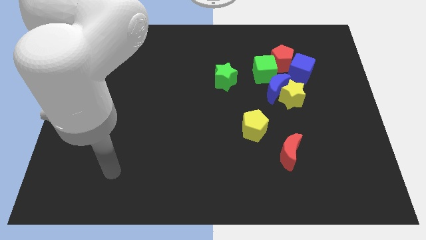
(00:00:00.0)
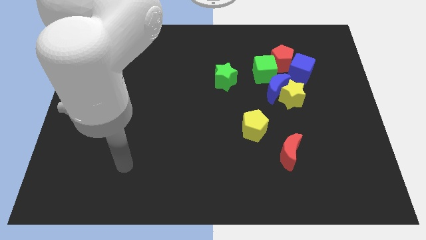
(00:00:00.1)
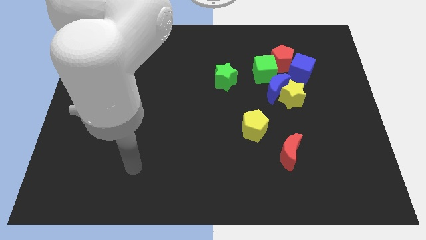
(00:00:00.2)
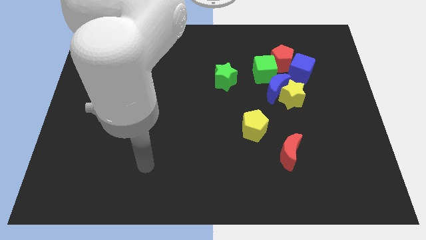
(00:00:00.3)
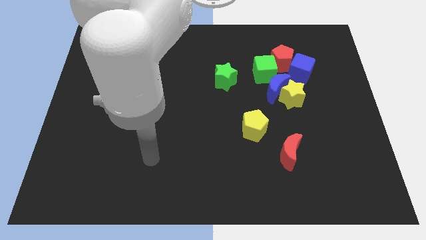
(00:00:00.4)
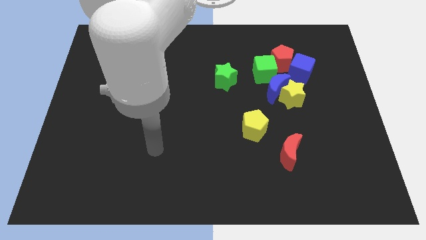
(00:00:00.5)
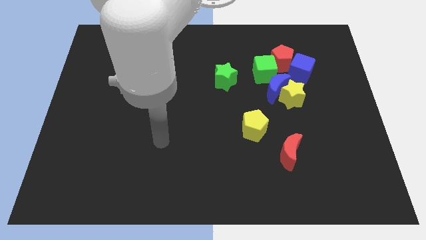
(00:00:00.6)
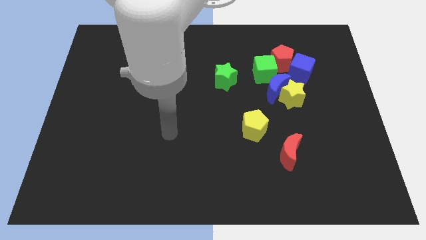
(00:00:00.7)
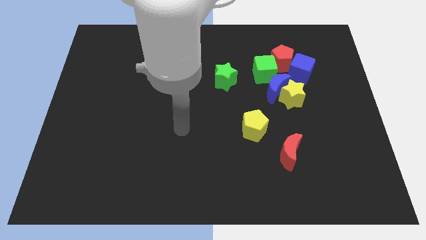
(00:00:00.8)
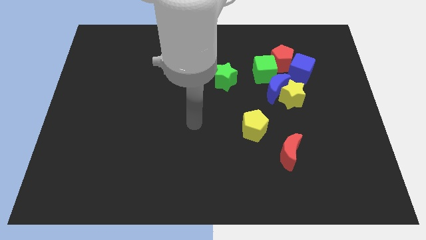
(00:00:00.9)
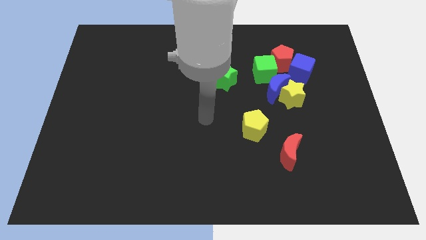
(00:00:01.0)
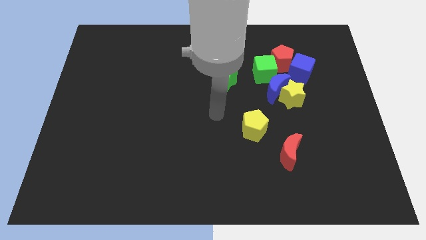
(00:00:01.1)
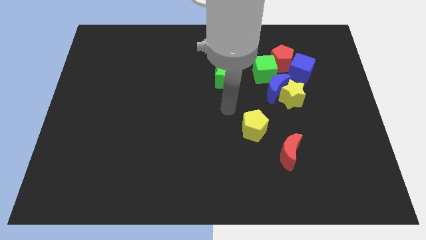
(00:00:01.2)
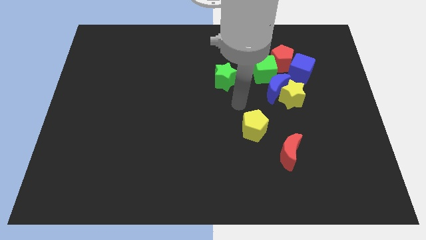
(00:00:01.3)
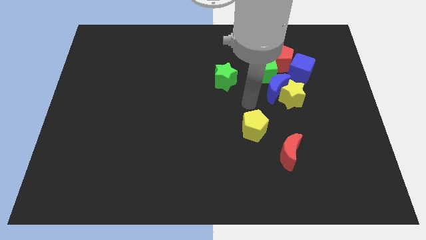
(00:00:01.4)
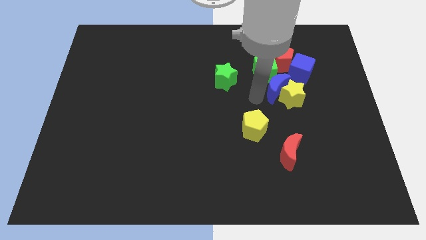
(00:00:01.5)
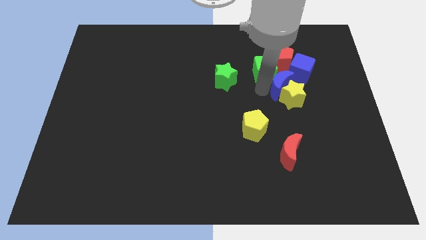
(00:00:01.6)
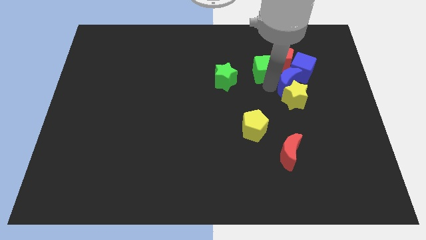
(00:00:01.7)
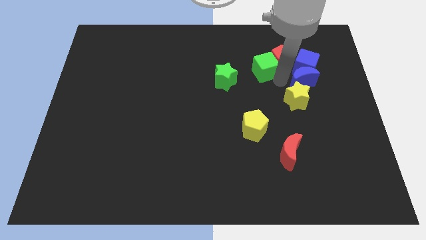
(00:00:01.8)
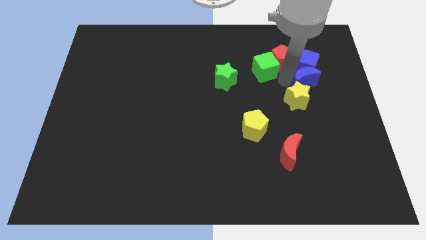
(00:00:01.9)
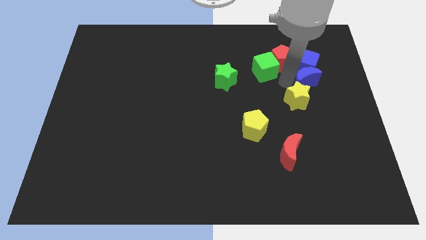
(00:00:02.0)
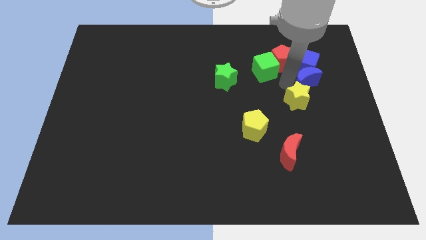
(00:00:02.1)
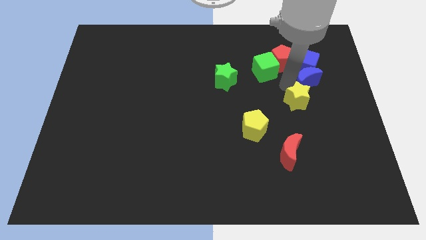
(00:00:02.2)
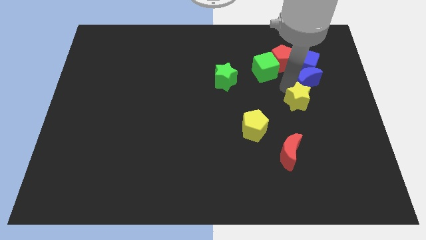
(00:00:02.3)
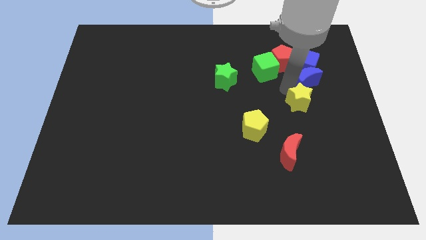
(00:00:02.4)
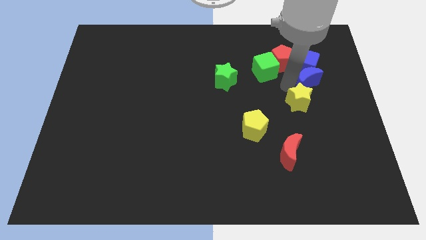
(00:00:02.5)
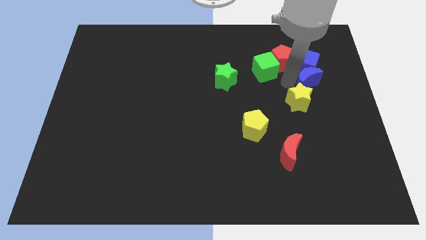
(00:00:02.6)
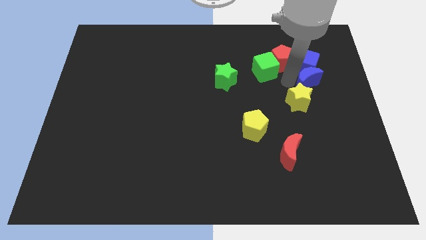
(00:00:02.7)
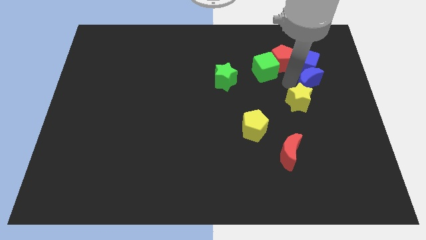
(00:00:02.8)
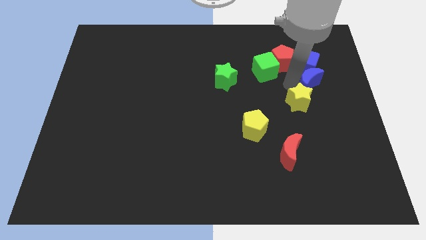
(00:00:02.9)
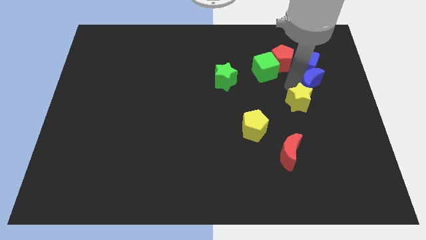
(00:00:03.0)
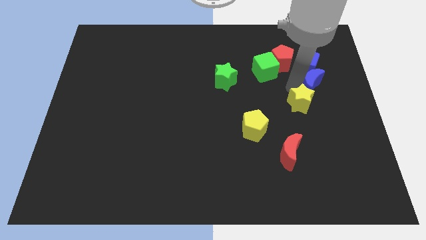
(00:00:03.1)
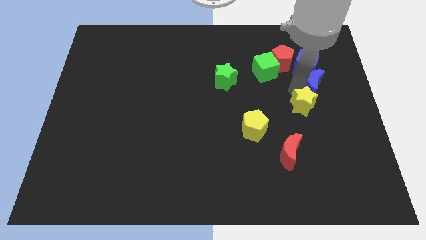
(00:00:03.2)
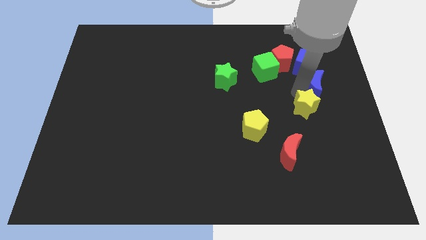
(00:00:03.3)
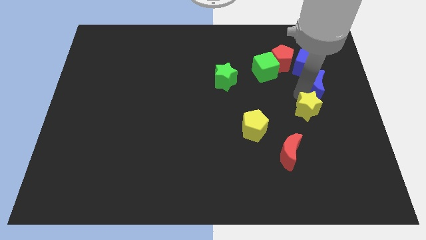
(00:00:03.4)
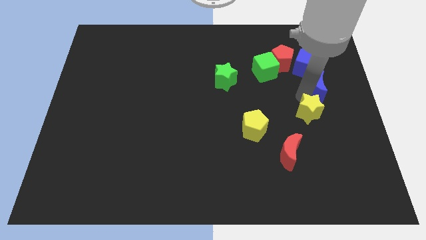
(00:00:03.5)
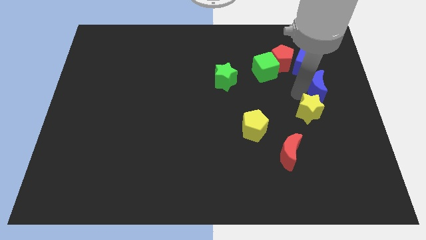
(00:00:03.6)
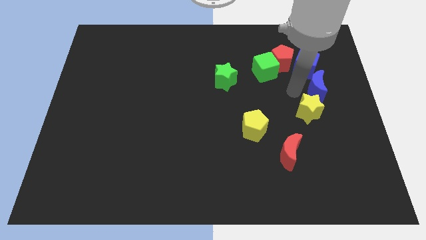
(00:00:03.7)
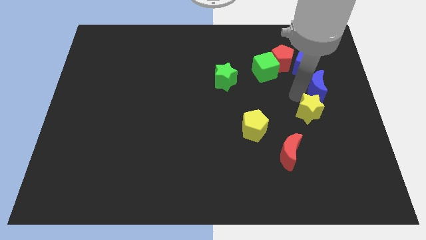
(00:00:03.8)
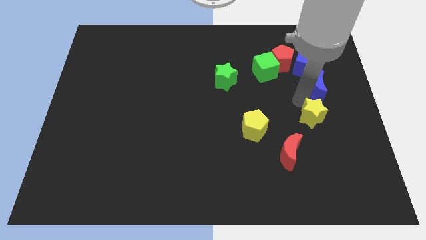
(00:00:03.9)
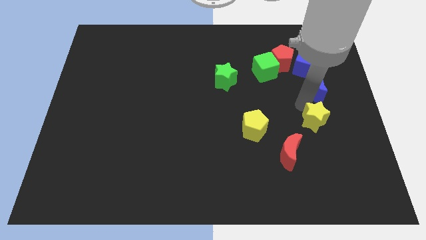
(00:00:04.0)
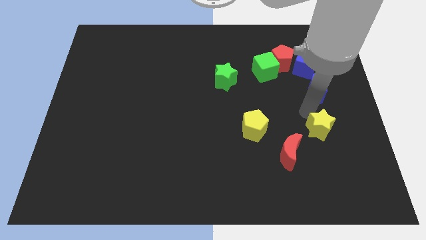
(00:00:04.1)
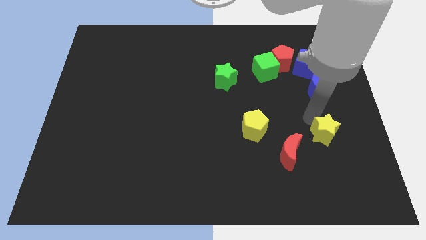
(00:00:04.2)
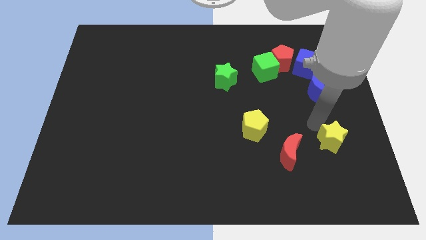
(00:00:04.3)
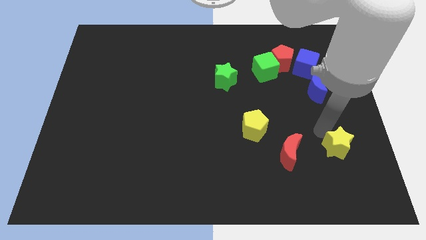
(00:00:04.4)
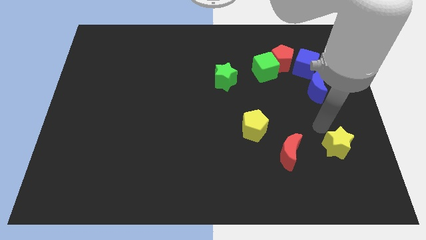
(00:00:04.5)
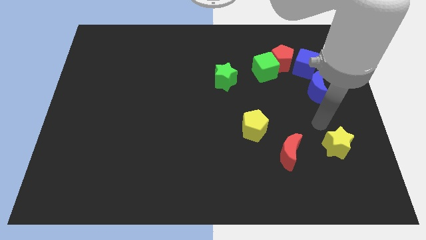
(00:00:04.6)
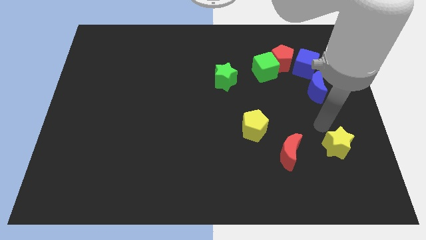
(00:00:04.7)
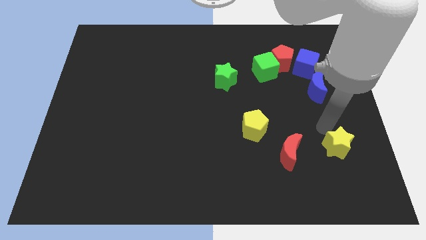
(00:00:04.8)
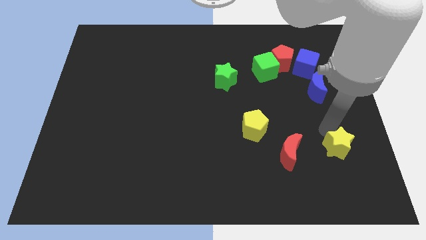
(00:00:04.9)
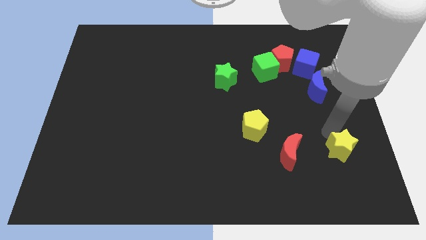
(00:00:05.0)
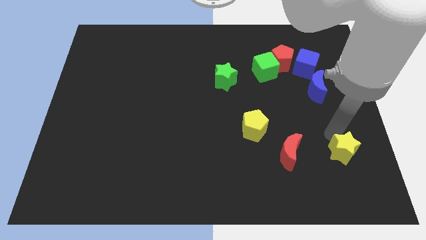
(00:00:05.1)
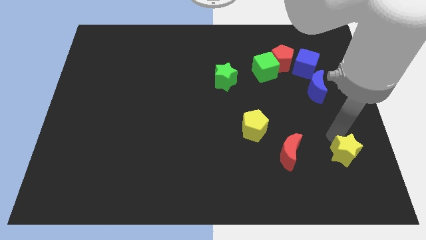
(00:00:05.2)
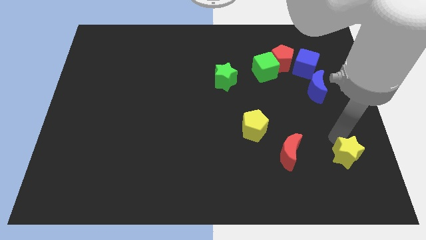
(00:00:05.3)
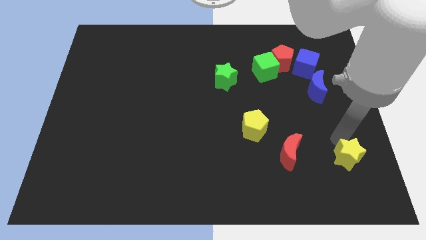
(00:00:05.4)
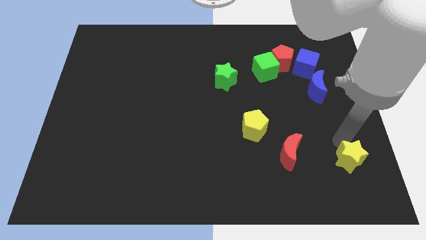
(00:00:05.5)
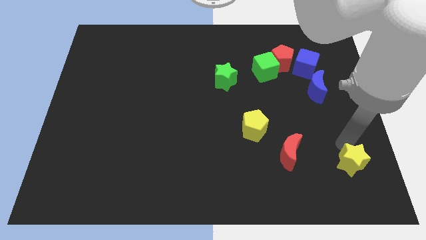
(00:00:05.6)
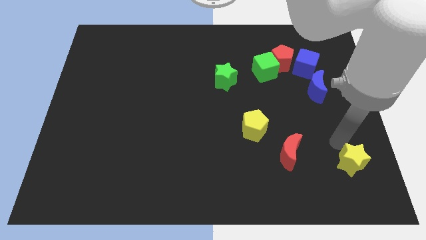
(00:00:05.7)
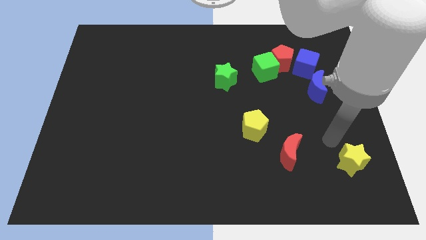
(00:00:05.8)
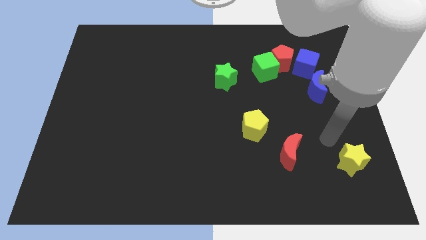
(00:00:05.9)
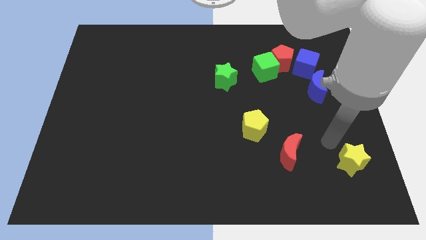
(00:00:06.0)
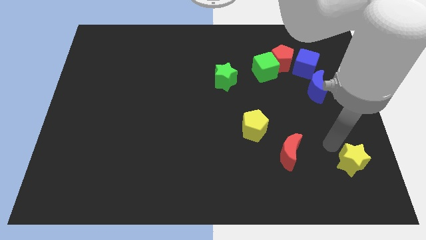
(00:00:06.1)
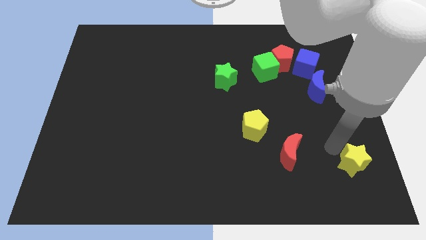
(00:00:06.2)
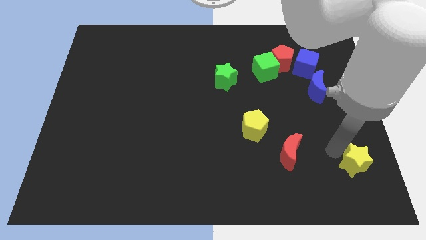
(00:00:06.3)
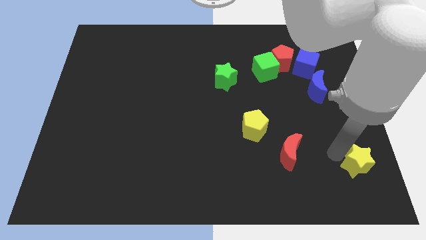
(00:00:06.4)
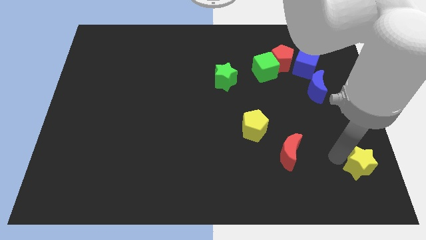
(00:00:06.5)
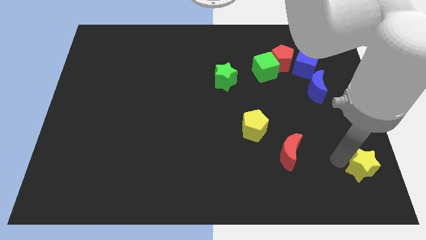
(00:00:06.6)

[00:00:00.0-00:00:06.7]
put the yellow star to the lower right corner
